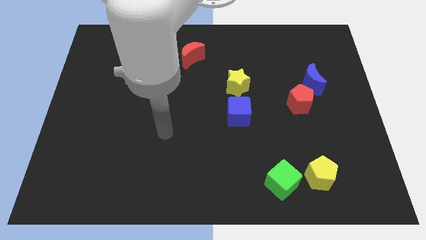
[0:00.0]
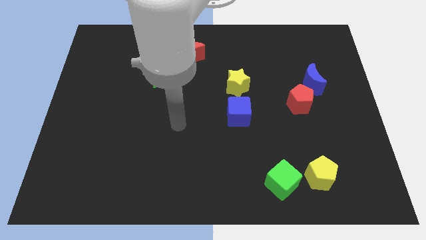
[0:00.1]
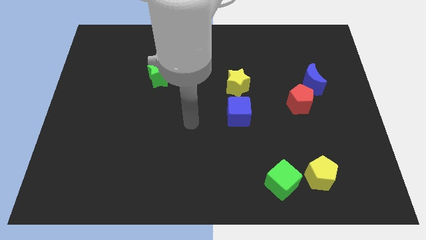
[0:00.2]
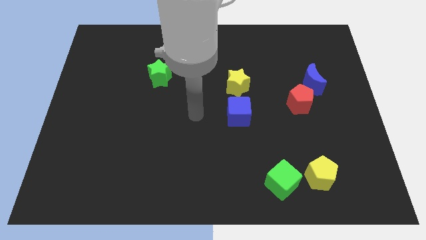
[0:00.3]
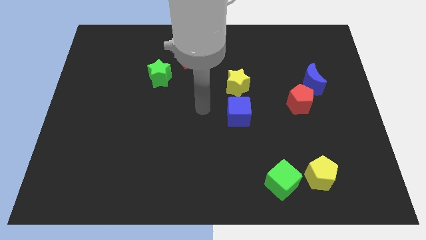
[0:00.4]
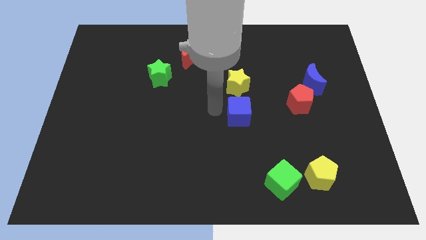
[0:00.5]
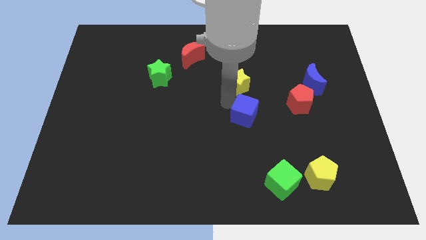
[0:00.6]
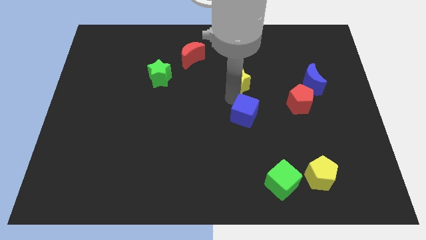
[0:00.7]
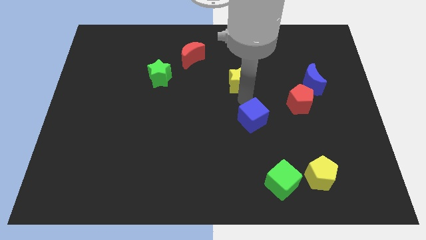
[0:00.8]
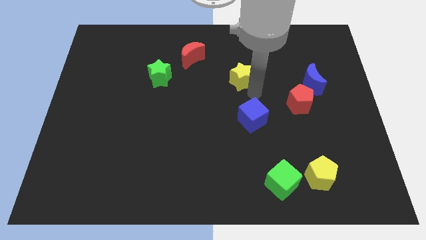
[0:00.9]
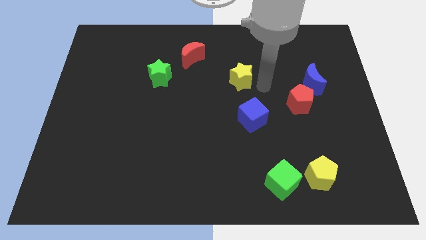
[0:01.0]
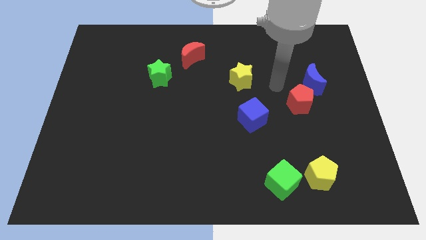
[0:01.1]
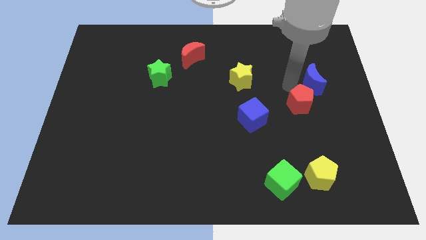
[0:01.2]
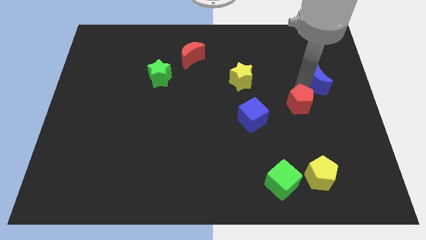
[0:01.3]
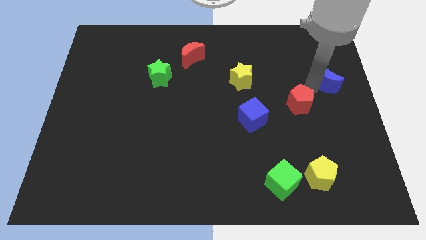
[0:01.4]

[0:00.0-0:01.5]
separate the red pentagon from the blue moon

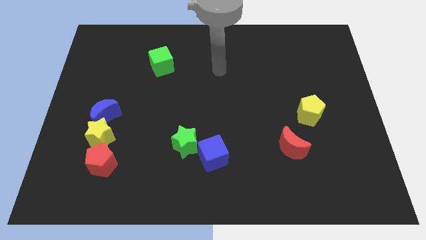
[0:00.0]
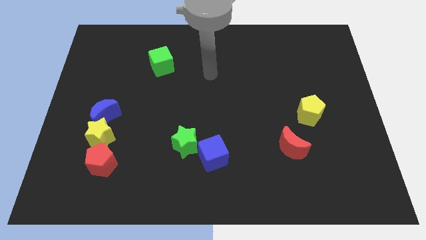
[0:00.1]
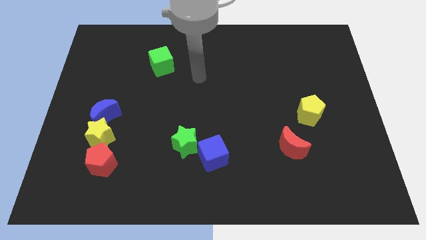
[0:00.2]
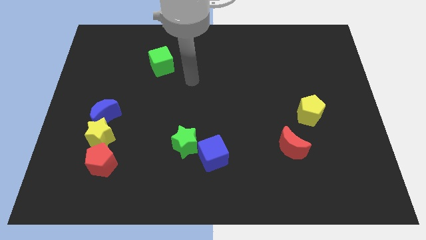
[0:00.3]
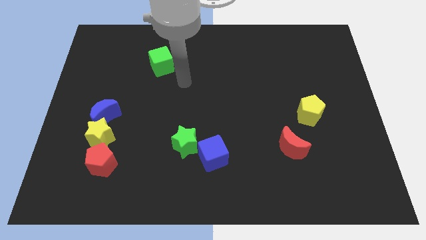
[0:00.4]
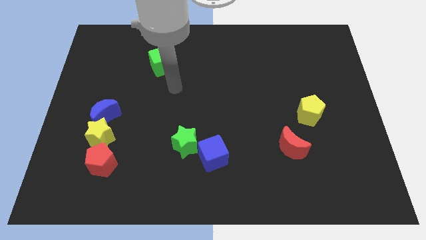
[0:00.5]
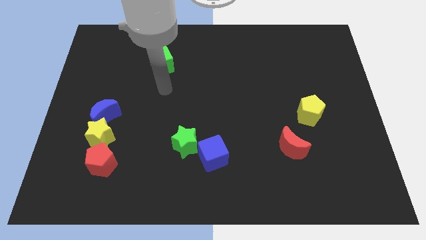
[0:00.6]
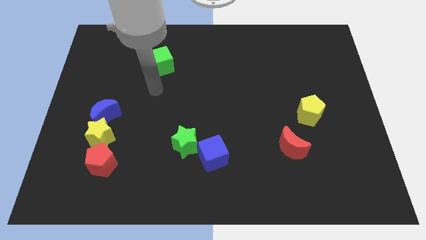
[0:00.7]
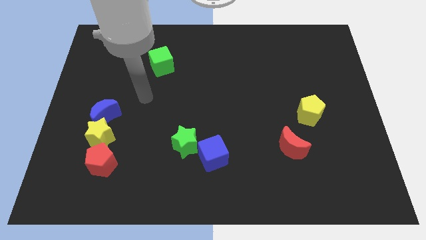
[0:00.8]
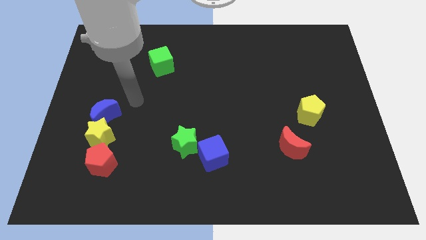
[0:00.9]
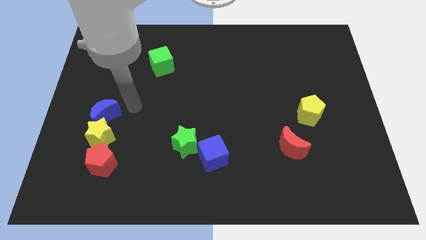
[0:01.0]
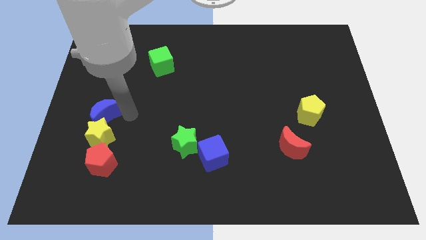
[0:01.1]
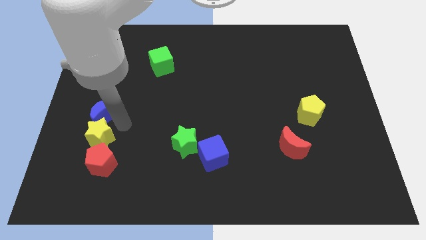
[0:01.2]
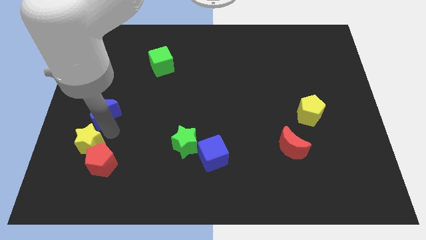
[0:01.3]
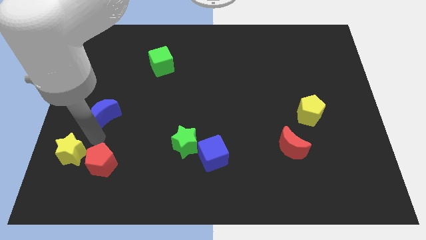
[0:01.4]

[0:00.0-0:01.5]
move the blue moon away from the yellow star

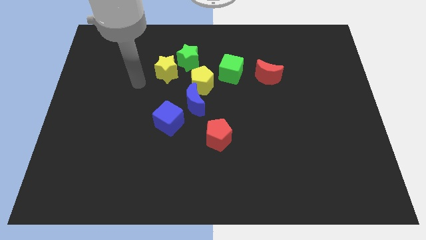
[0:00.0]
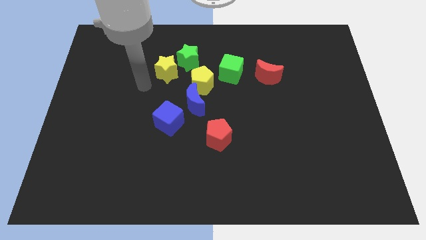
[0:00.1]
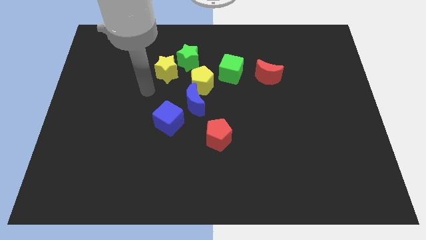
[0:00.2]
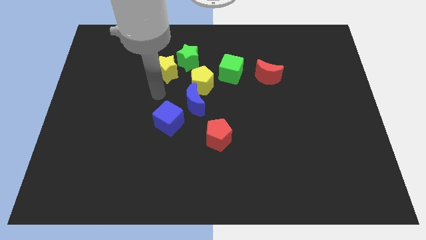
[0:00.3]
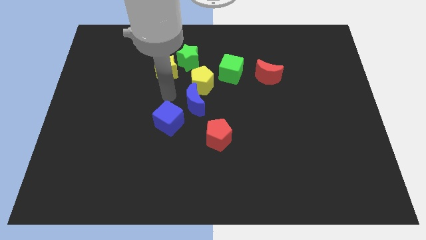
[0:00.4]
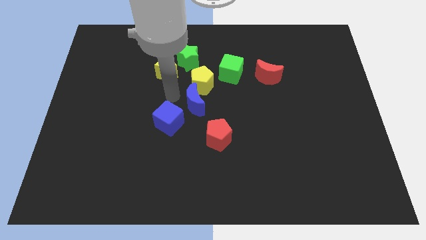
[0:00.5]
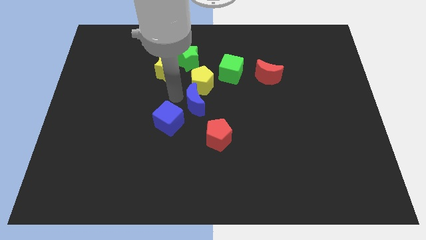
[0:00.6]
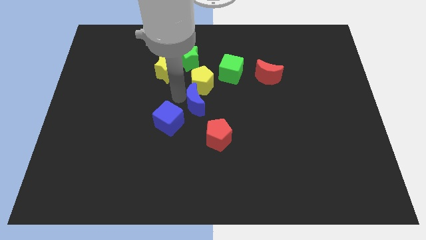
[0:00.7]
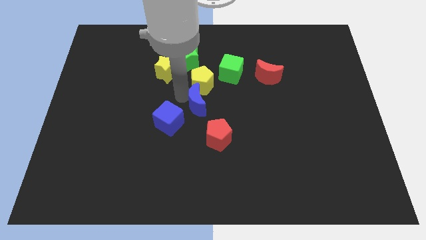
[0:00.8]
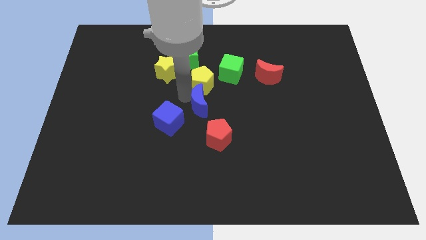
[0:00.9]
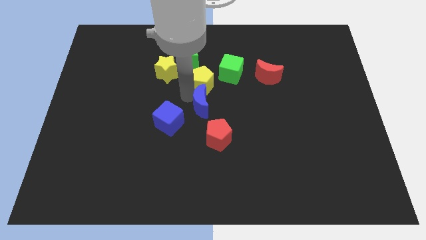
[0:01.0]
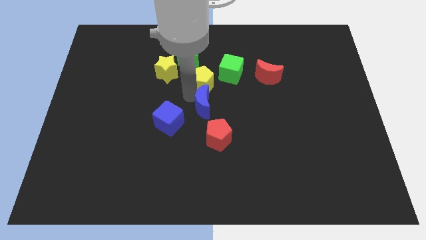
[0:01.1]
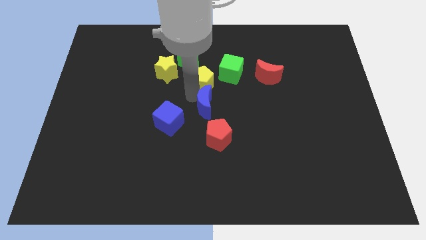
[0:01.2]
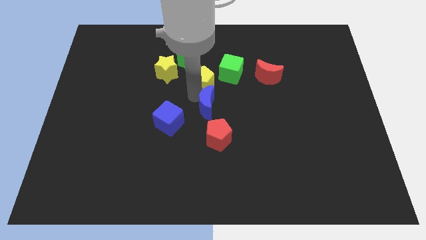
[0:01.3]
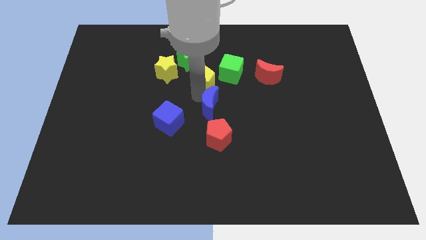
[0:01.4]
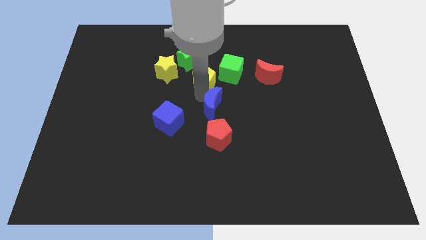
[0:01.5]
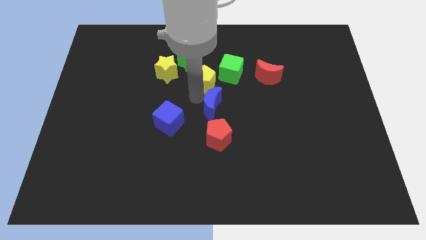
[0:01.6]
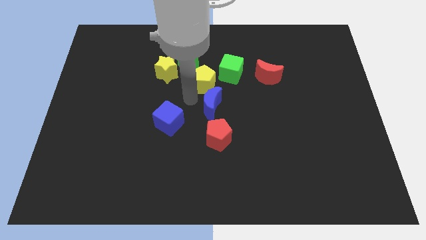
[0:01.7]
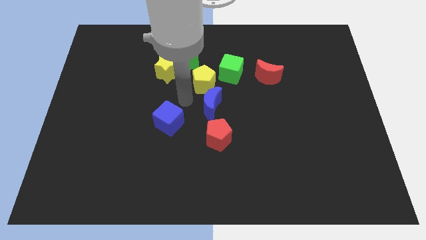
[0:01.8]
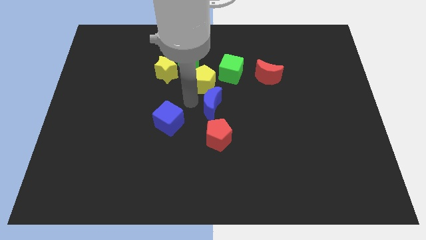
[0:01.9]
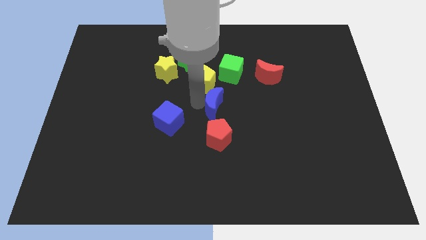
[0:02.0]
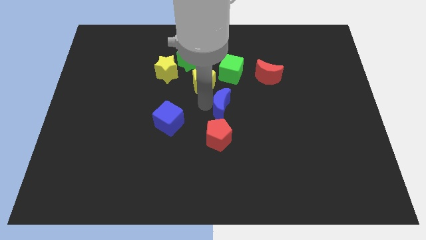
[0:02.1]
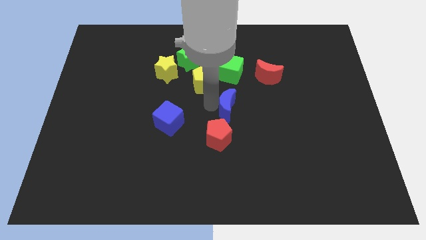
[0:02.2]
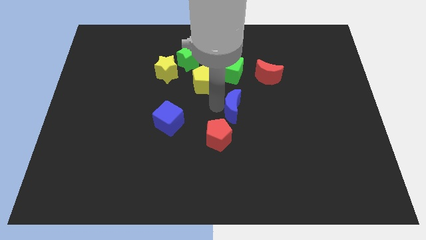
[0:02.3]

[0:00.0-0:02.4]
pull the blue moon apart from the yellow pentagon and blue cube

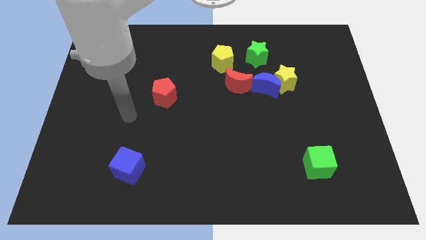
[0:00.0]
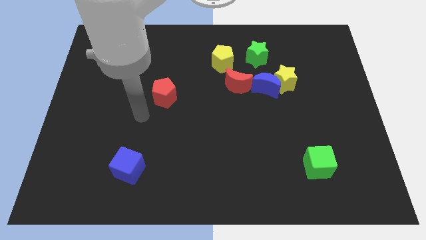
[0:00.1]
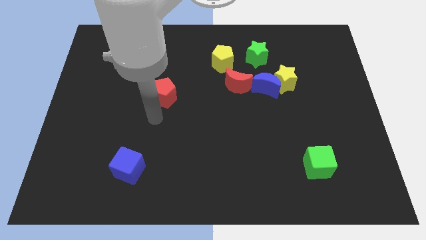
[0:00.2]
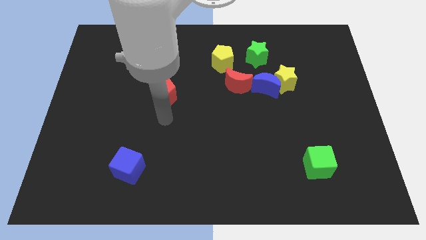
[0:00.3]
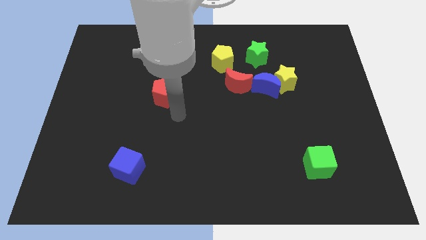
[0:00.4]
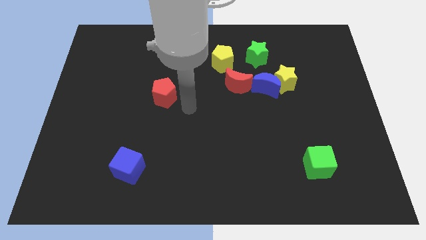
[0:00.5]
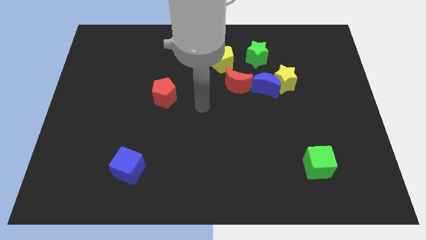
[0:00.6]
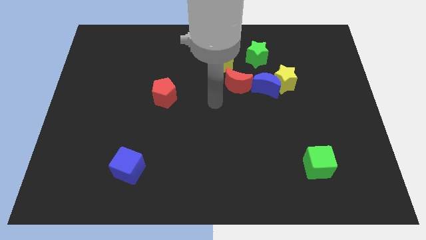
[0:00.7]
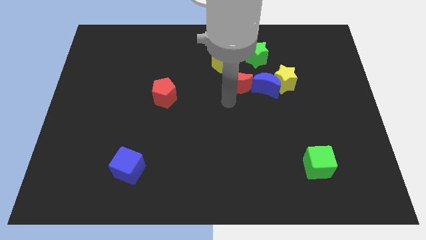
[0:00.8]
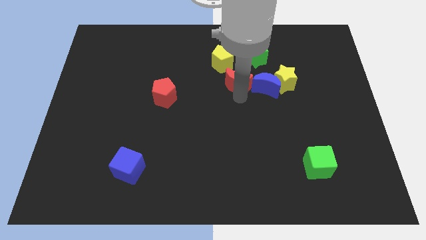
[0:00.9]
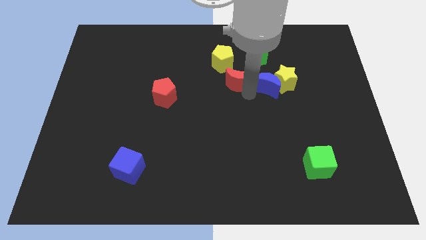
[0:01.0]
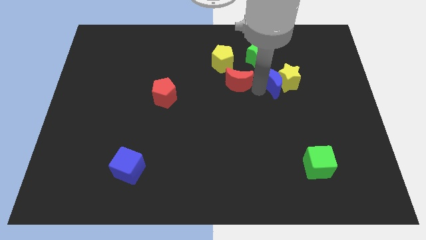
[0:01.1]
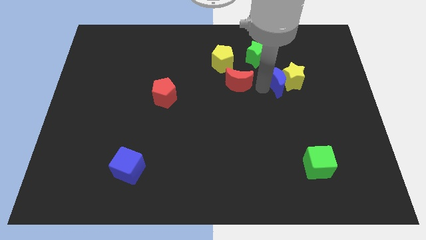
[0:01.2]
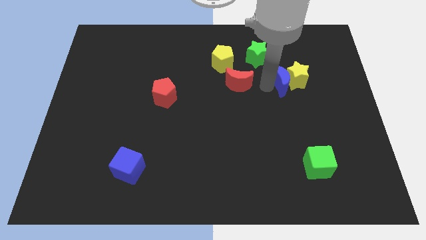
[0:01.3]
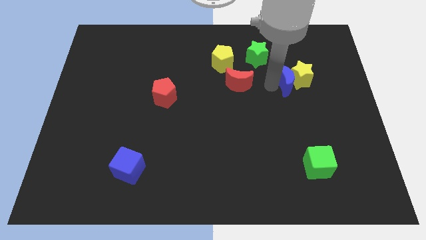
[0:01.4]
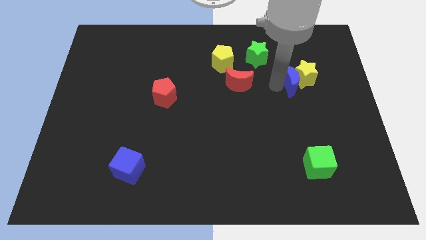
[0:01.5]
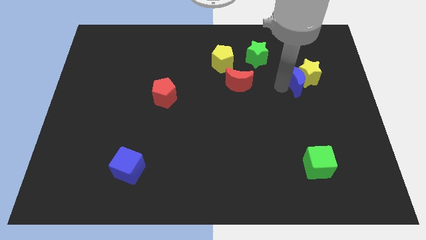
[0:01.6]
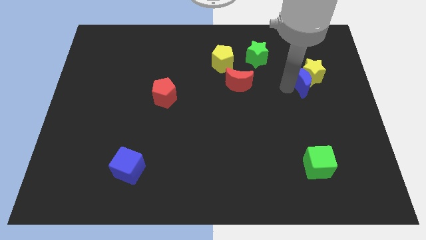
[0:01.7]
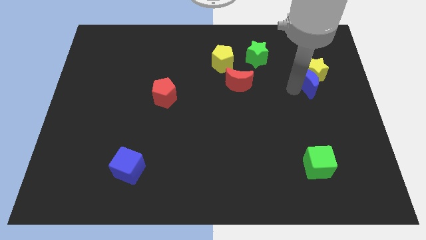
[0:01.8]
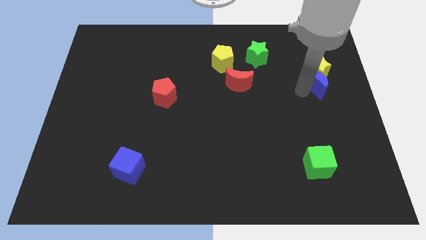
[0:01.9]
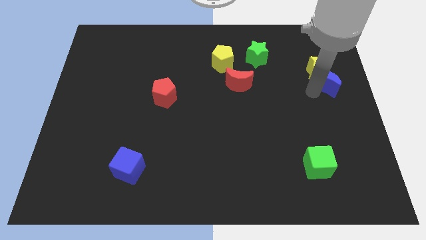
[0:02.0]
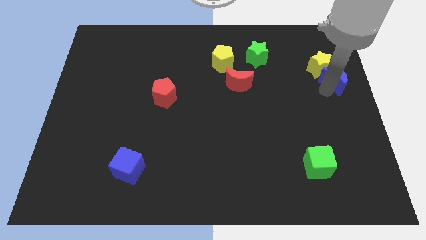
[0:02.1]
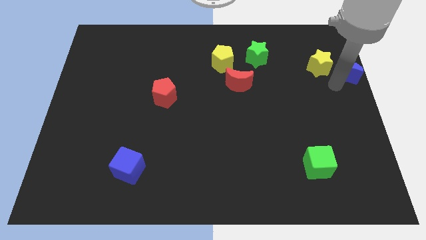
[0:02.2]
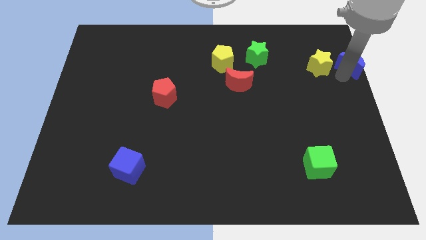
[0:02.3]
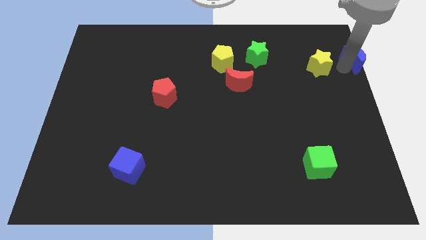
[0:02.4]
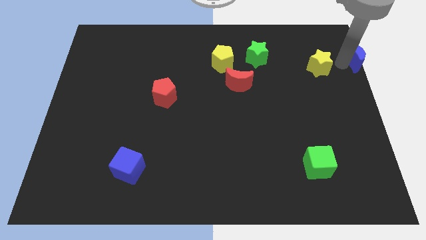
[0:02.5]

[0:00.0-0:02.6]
move the yellow star away from the blue moon

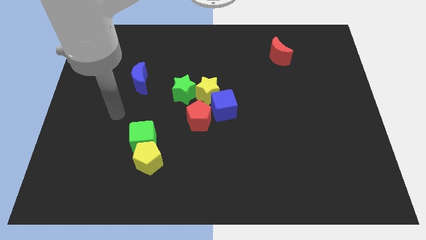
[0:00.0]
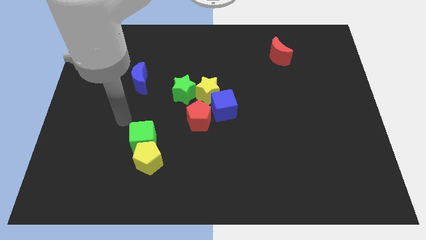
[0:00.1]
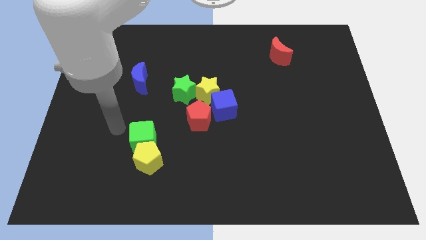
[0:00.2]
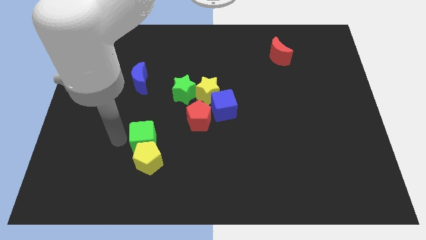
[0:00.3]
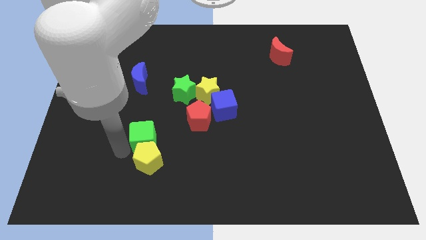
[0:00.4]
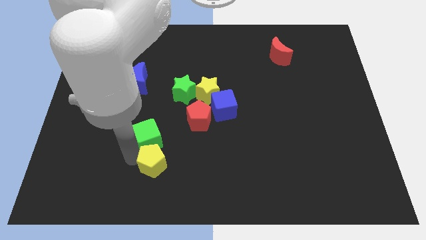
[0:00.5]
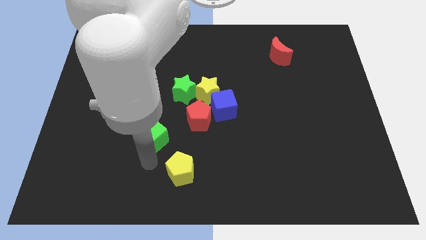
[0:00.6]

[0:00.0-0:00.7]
separate the green cube from the yellow pentagon

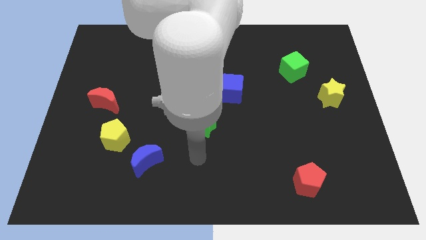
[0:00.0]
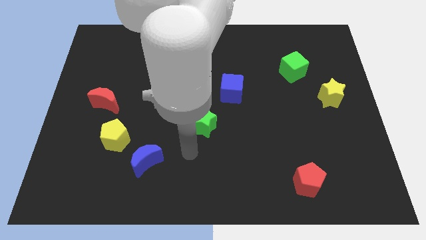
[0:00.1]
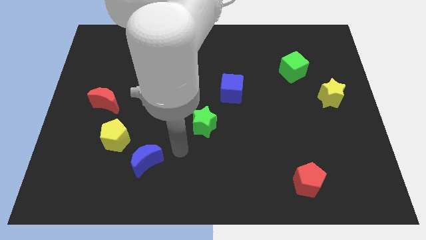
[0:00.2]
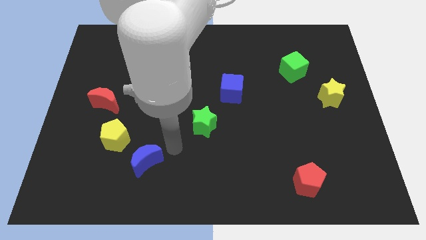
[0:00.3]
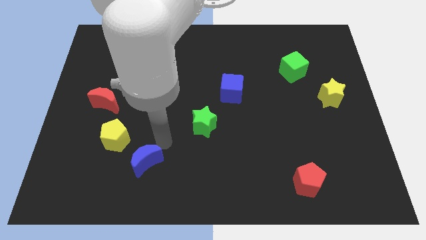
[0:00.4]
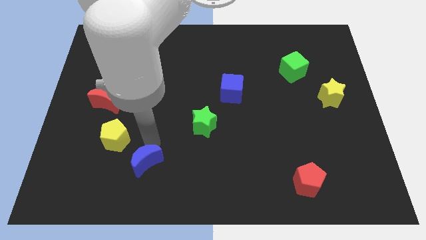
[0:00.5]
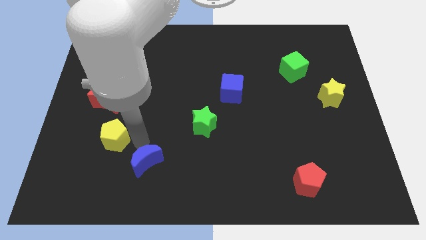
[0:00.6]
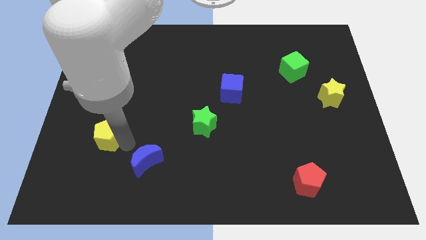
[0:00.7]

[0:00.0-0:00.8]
separate the blue moon from the yellow pentagon

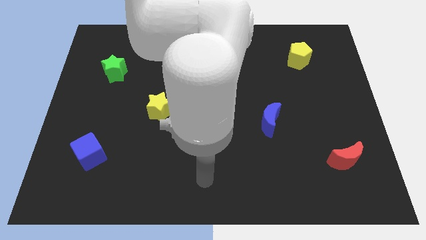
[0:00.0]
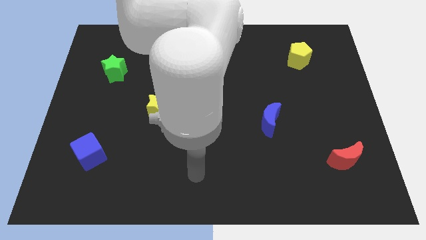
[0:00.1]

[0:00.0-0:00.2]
pull the green cube apart from the yellow star
